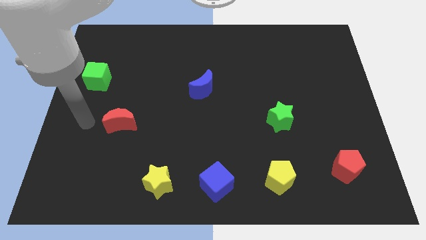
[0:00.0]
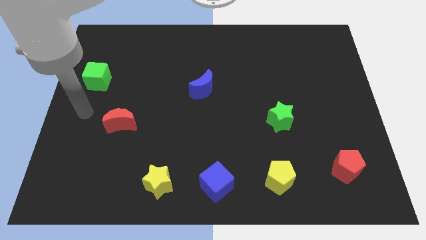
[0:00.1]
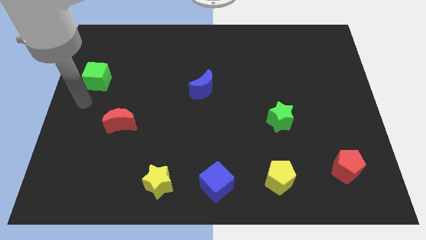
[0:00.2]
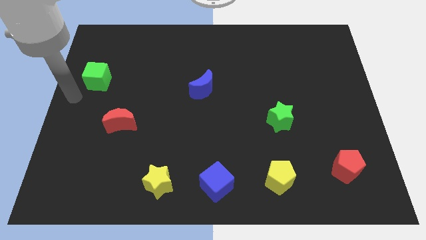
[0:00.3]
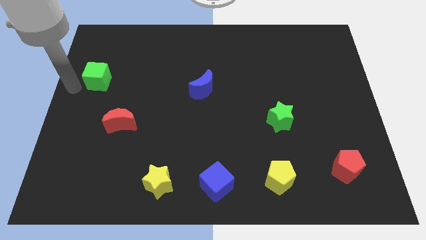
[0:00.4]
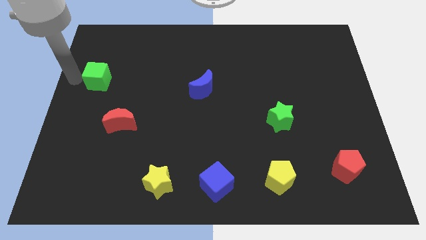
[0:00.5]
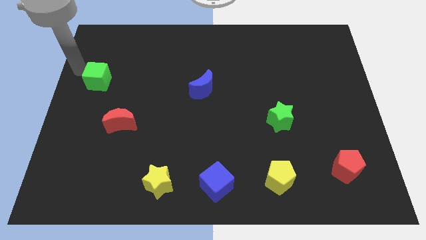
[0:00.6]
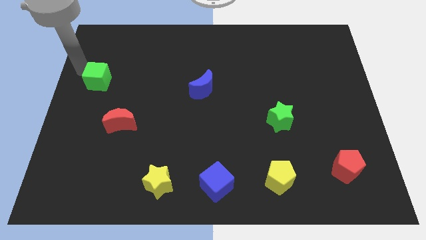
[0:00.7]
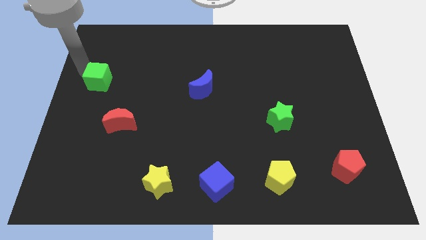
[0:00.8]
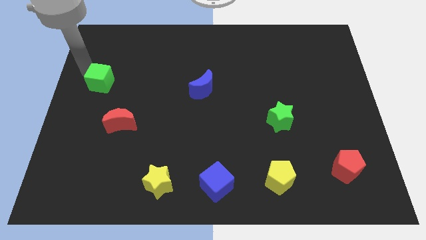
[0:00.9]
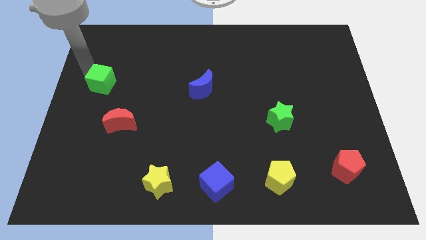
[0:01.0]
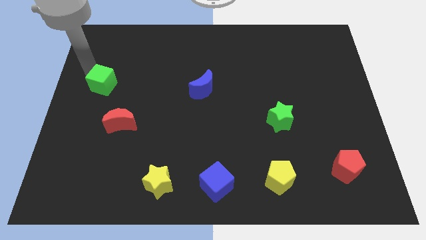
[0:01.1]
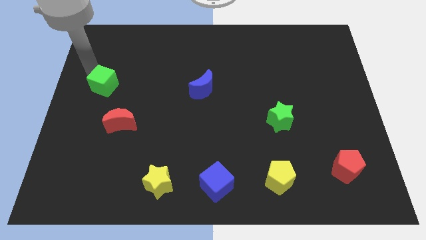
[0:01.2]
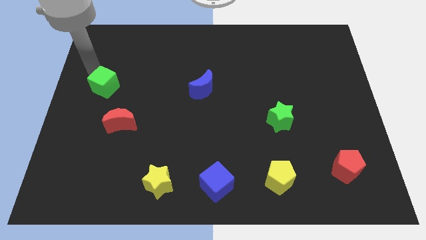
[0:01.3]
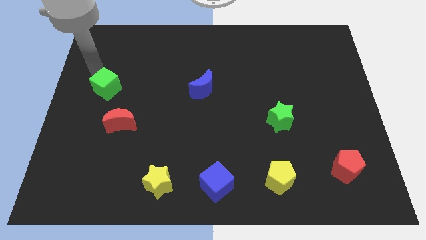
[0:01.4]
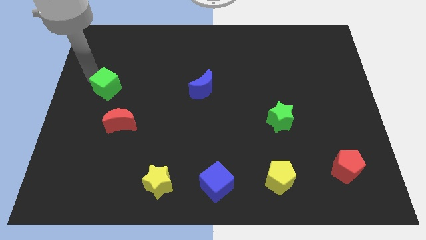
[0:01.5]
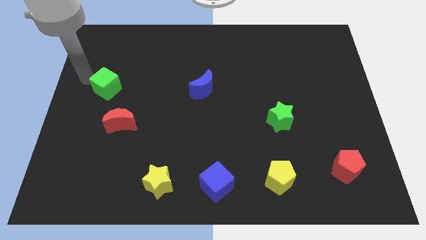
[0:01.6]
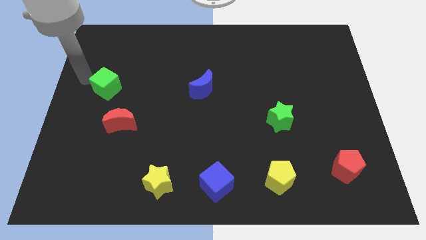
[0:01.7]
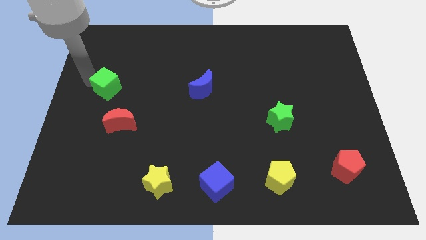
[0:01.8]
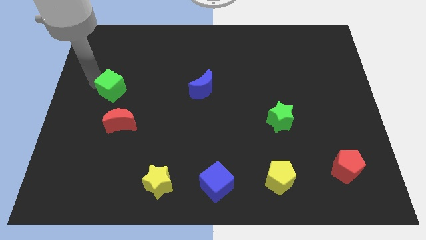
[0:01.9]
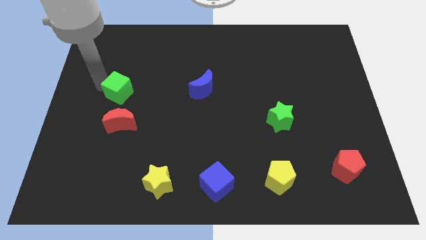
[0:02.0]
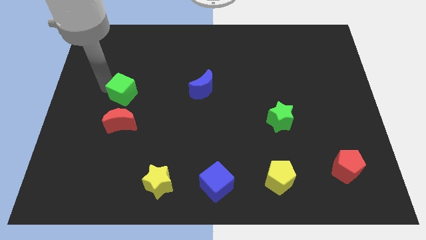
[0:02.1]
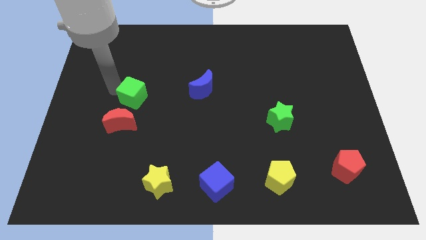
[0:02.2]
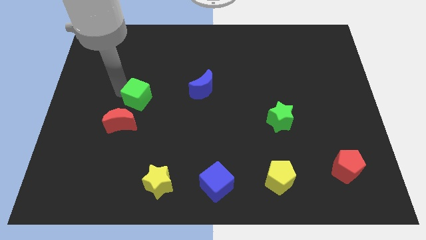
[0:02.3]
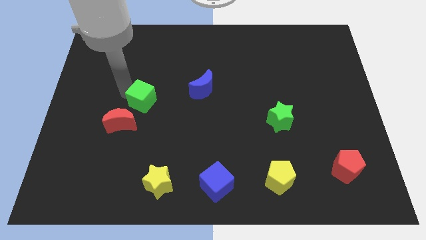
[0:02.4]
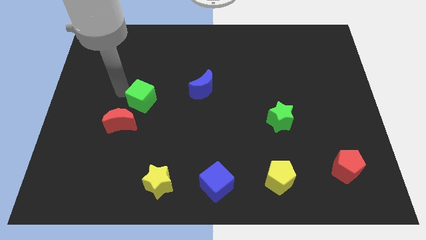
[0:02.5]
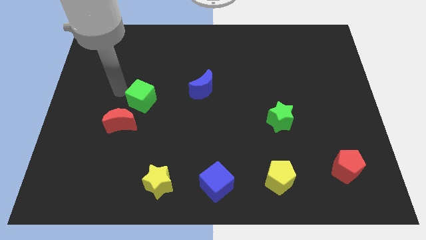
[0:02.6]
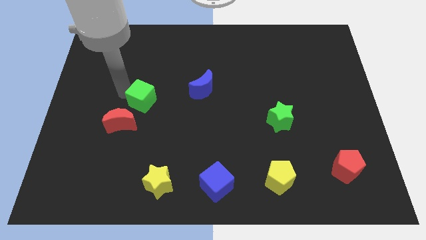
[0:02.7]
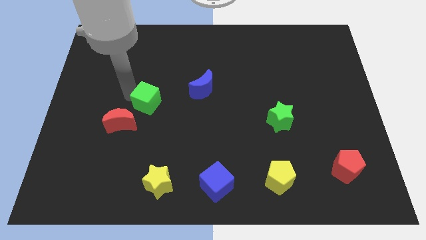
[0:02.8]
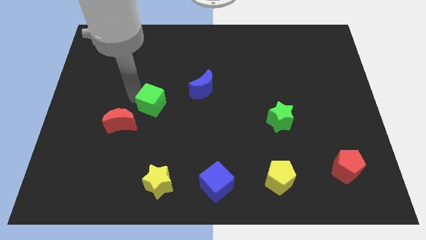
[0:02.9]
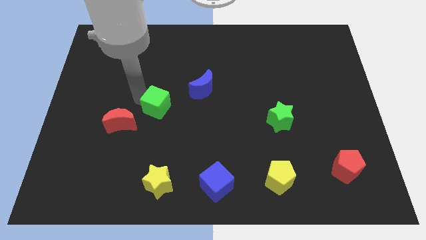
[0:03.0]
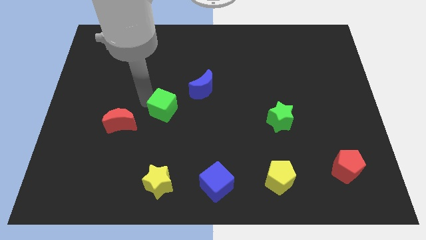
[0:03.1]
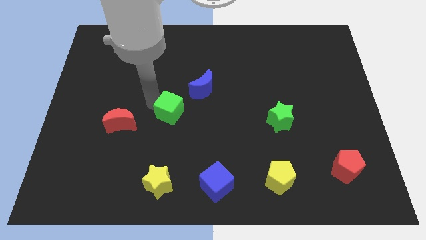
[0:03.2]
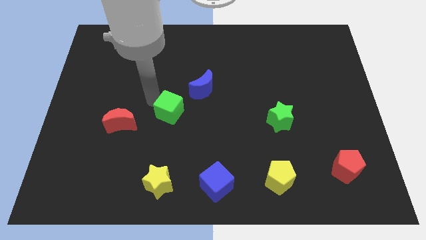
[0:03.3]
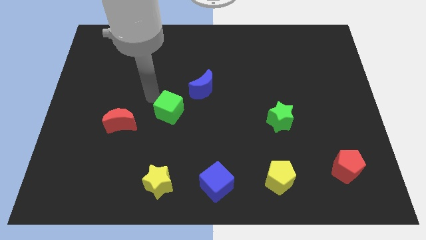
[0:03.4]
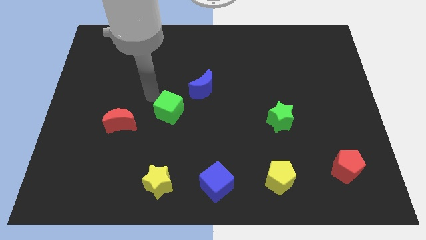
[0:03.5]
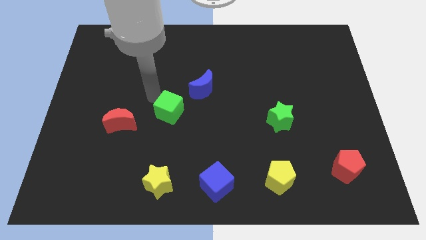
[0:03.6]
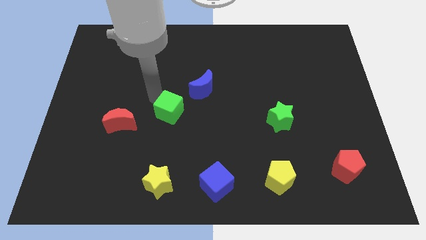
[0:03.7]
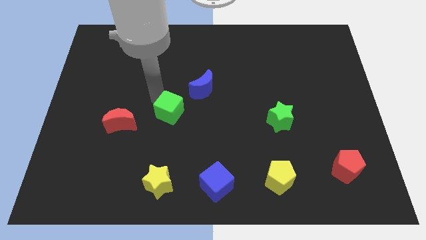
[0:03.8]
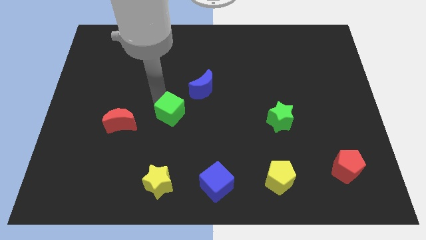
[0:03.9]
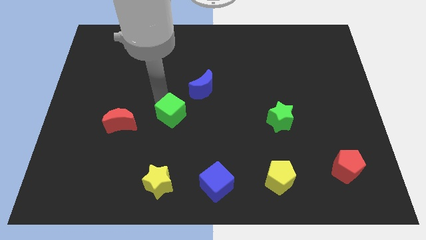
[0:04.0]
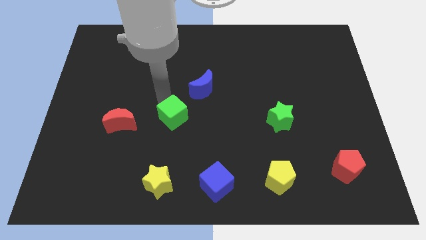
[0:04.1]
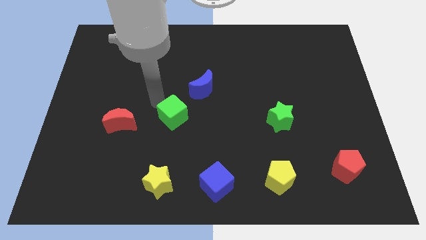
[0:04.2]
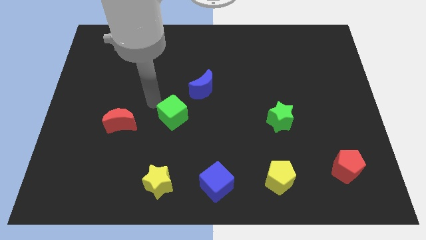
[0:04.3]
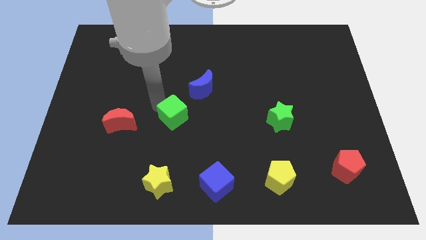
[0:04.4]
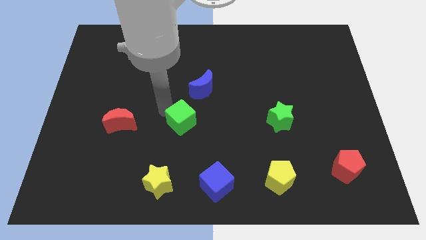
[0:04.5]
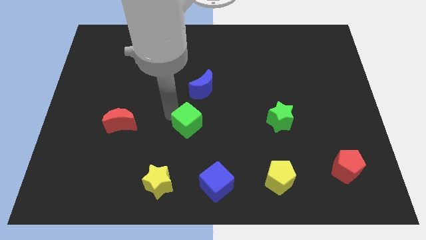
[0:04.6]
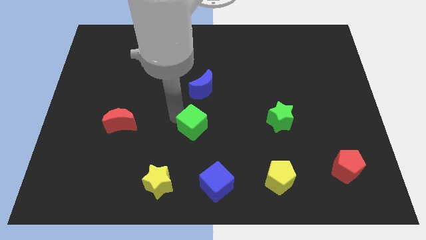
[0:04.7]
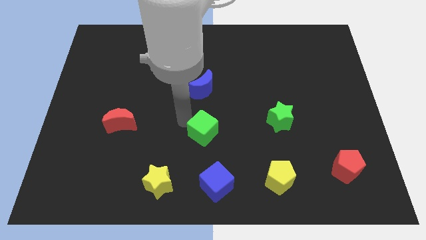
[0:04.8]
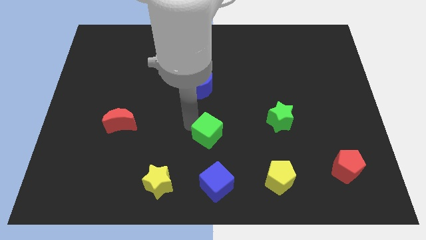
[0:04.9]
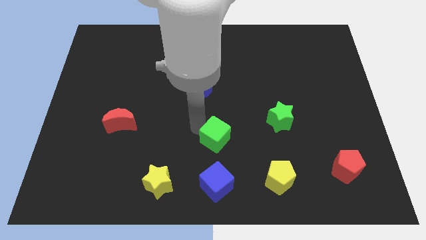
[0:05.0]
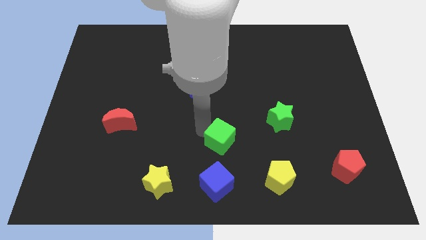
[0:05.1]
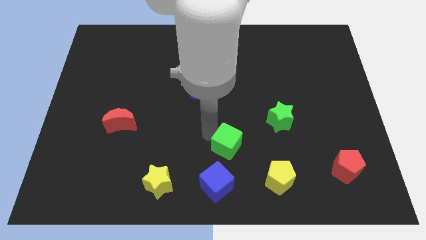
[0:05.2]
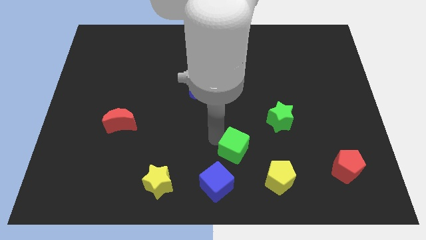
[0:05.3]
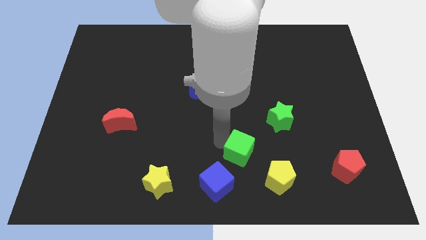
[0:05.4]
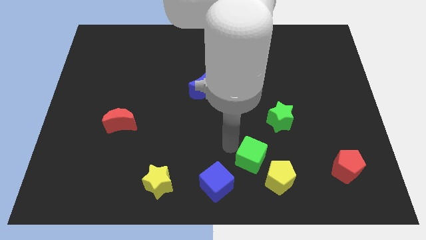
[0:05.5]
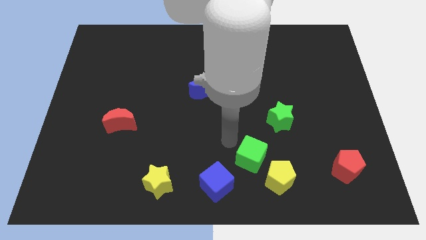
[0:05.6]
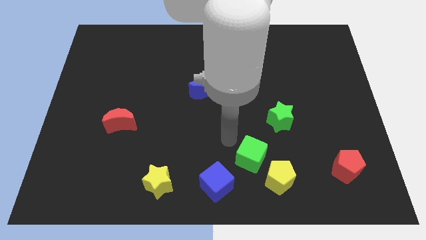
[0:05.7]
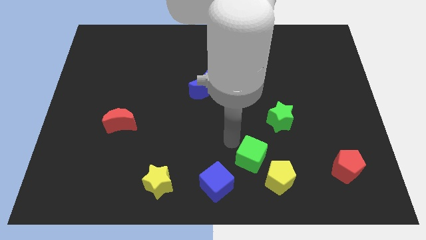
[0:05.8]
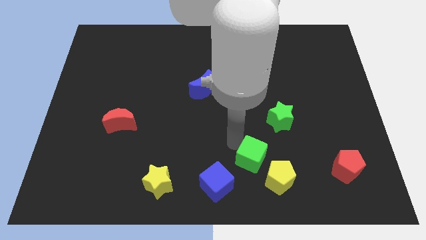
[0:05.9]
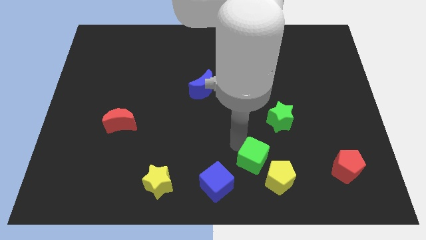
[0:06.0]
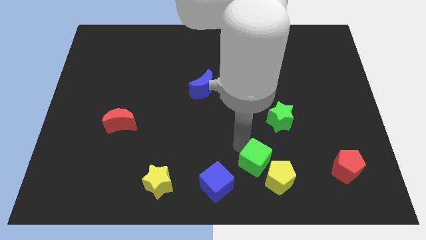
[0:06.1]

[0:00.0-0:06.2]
push the green cube next to the yellow pentagon

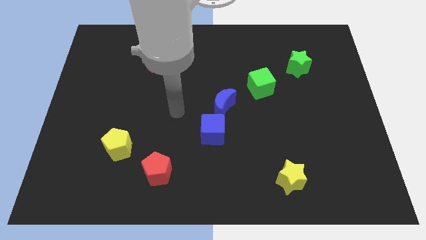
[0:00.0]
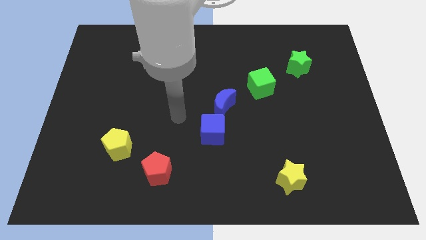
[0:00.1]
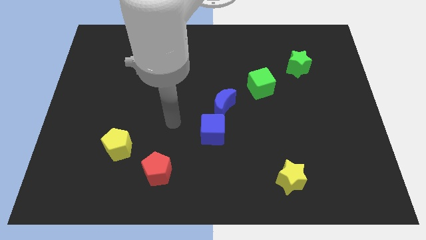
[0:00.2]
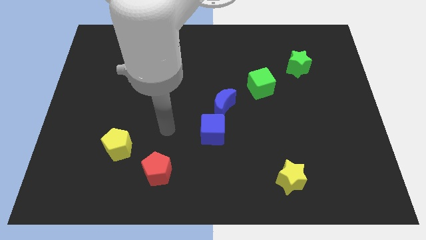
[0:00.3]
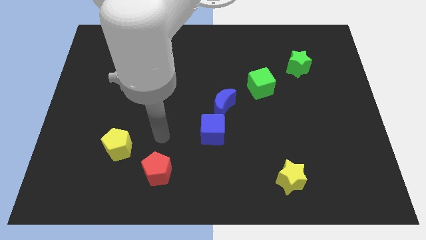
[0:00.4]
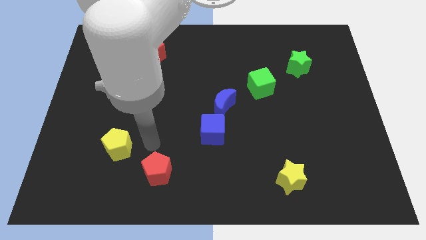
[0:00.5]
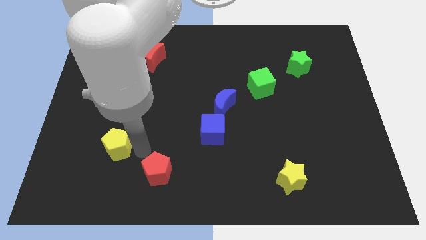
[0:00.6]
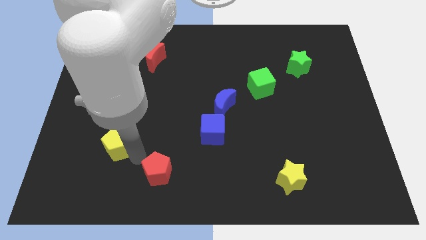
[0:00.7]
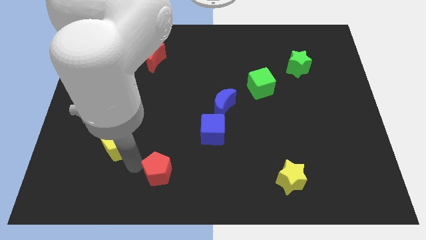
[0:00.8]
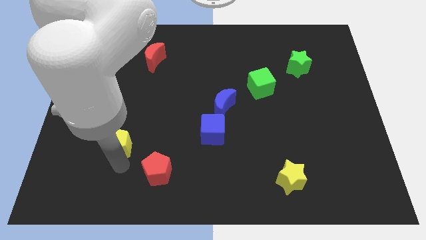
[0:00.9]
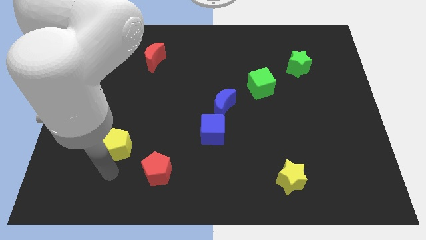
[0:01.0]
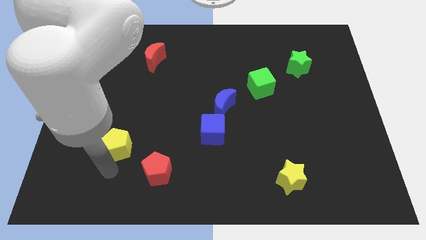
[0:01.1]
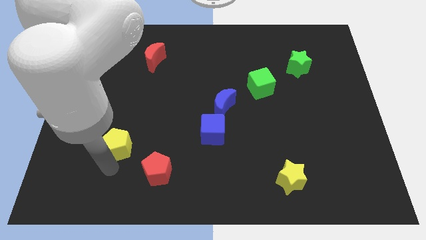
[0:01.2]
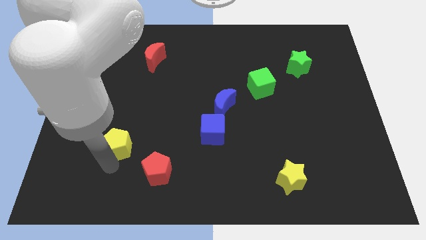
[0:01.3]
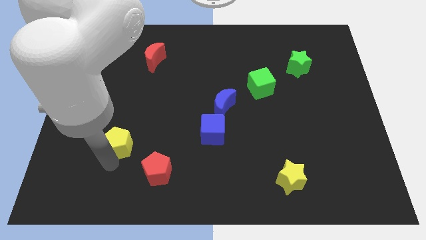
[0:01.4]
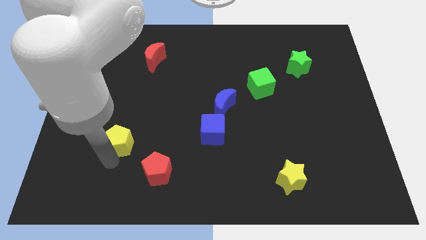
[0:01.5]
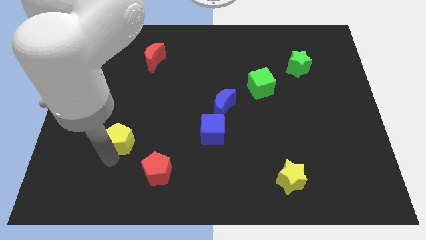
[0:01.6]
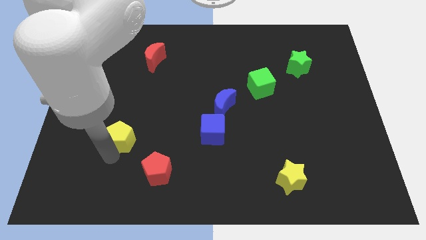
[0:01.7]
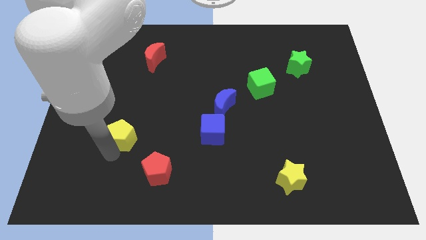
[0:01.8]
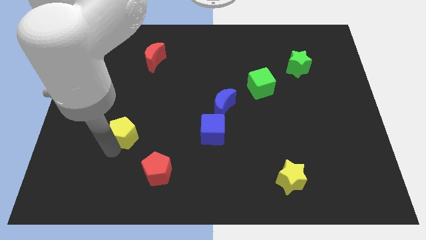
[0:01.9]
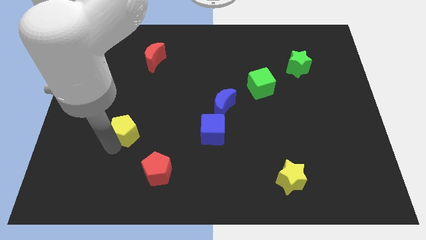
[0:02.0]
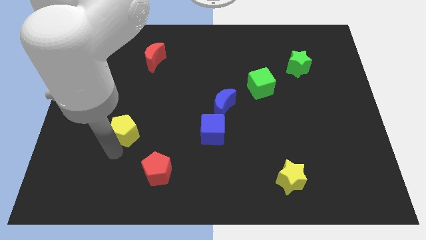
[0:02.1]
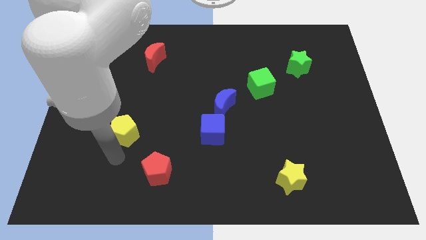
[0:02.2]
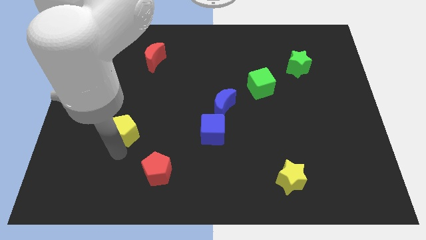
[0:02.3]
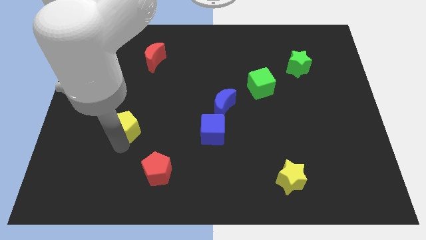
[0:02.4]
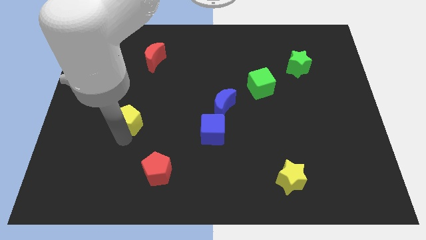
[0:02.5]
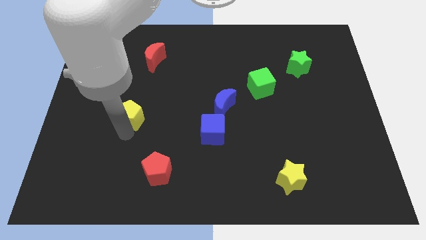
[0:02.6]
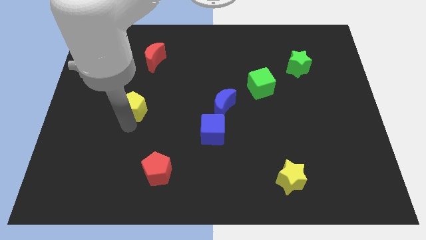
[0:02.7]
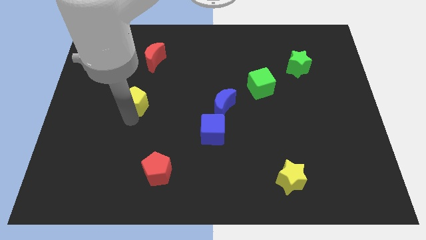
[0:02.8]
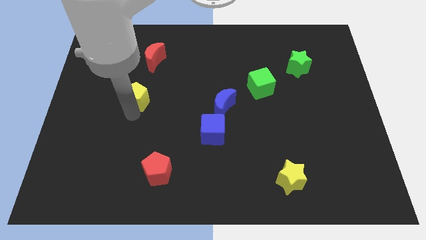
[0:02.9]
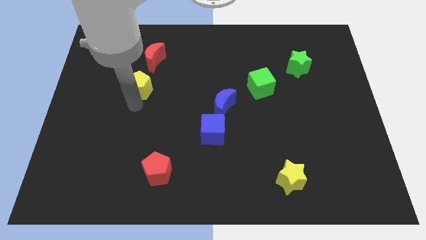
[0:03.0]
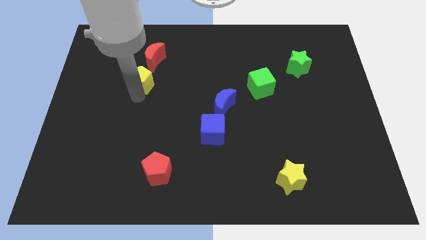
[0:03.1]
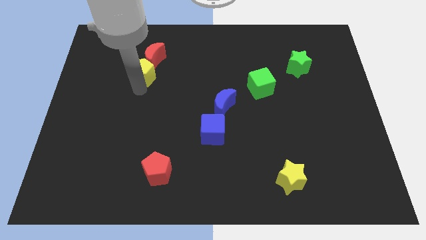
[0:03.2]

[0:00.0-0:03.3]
put the yellow pentagon next to the red moon
